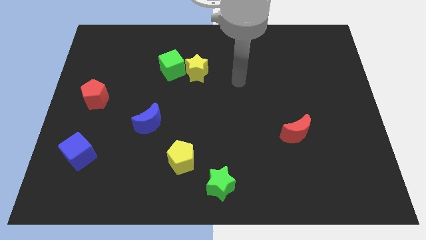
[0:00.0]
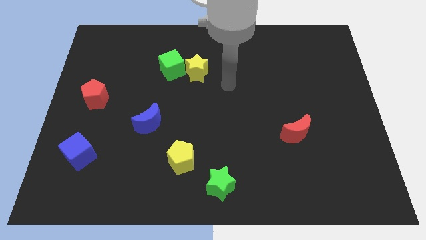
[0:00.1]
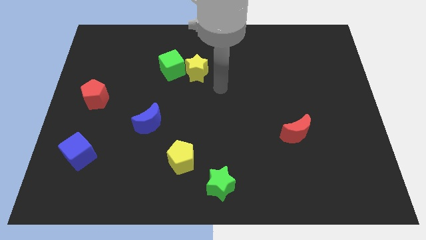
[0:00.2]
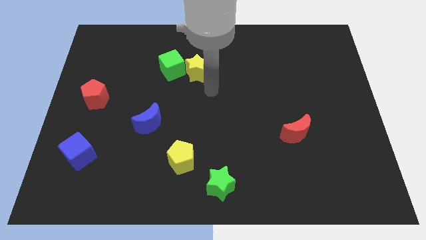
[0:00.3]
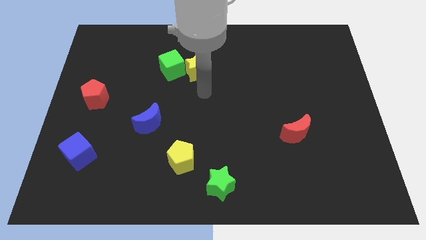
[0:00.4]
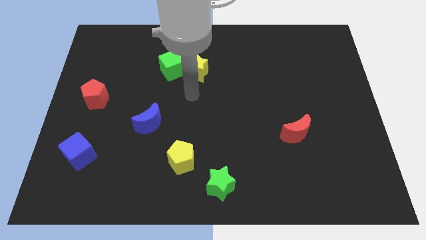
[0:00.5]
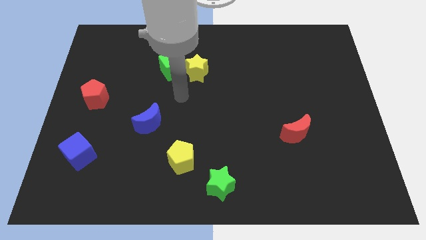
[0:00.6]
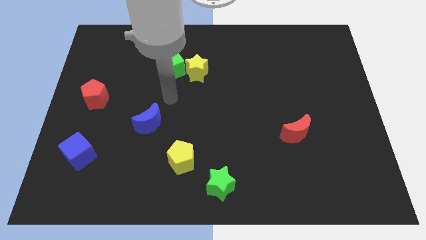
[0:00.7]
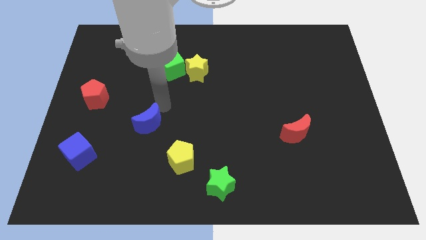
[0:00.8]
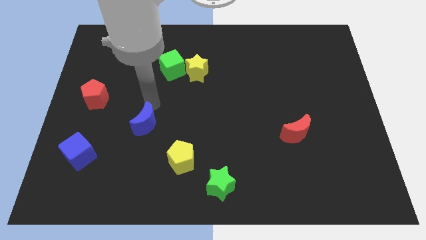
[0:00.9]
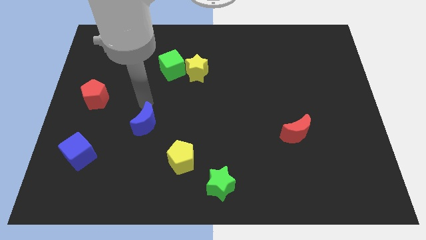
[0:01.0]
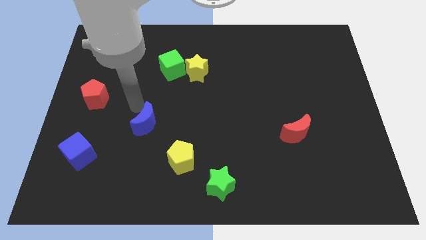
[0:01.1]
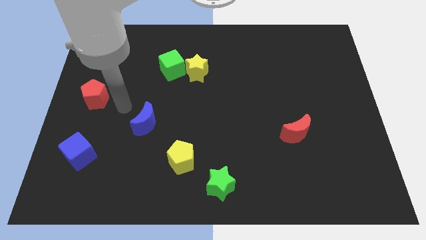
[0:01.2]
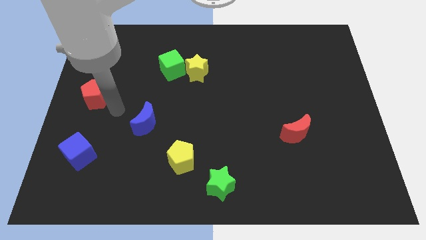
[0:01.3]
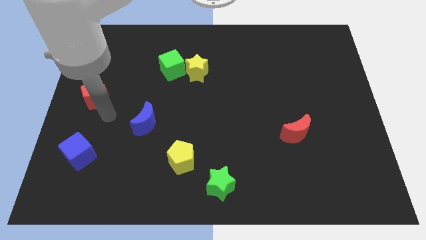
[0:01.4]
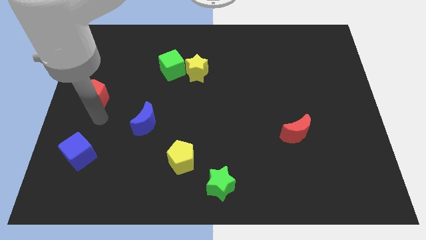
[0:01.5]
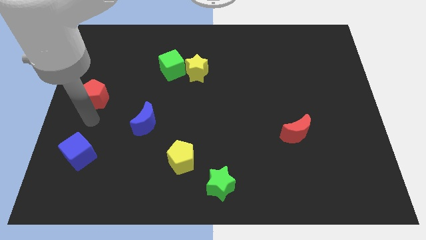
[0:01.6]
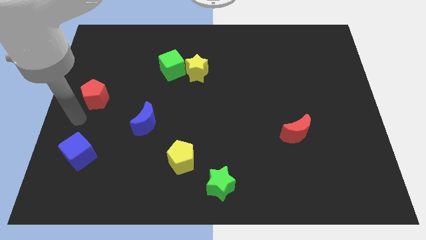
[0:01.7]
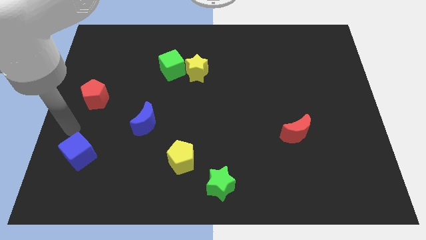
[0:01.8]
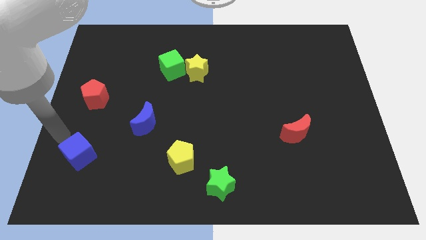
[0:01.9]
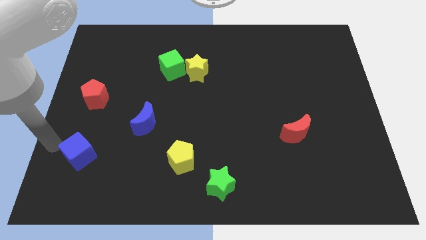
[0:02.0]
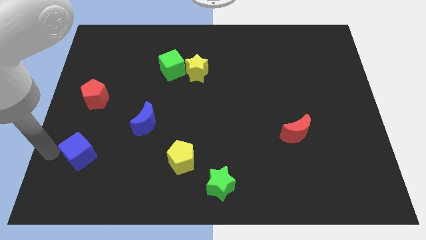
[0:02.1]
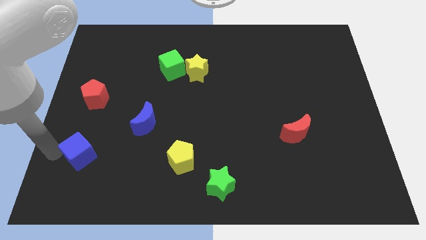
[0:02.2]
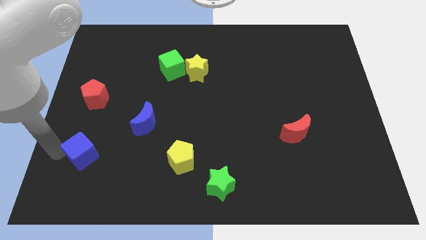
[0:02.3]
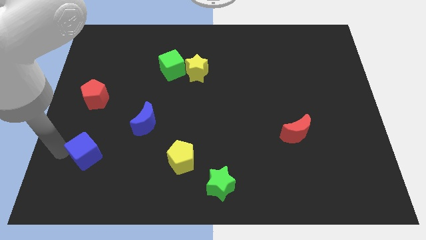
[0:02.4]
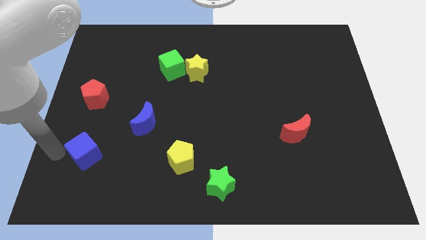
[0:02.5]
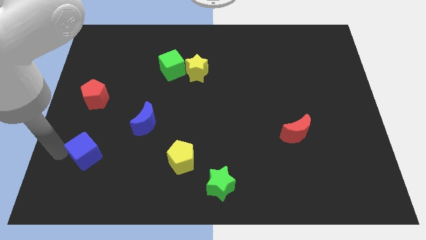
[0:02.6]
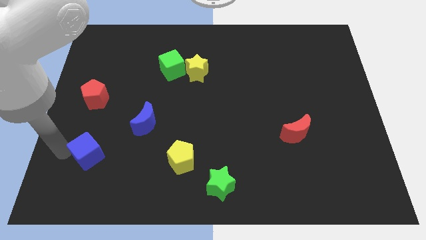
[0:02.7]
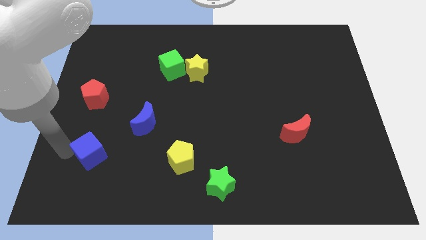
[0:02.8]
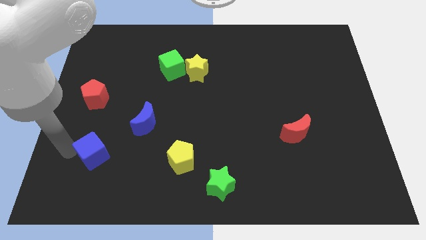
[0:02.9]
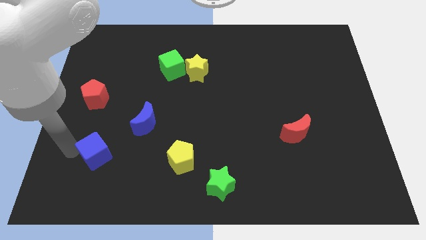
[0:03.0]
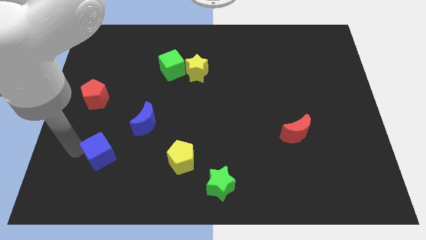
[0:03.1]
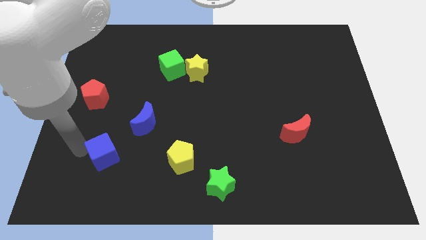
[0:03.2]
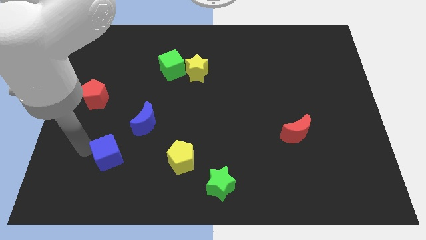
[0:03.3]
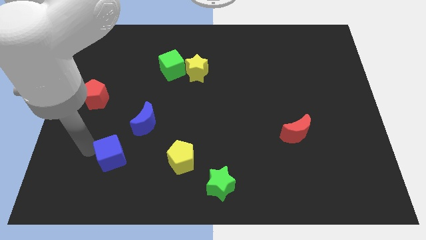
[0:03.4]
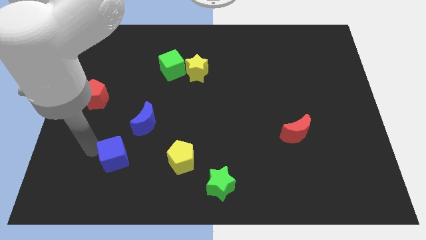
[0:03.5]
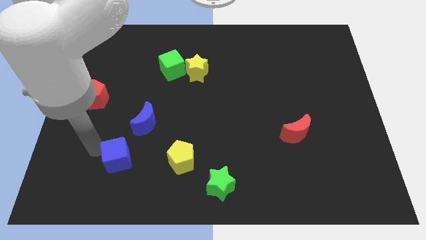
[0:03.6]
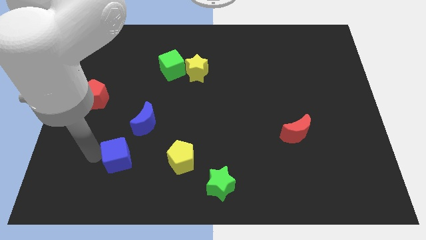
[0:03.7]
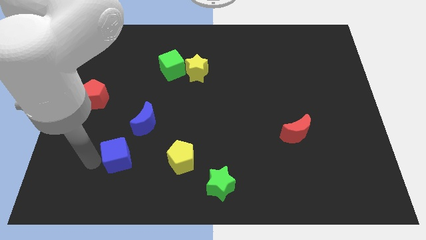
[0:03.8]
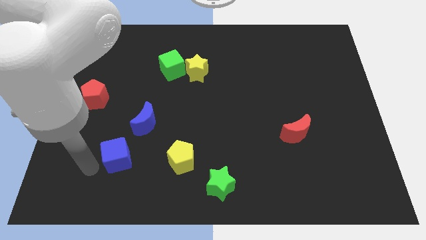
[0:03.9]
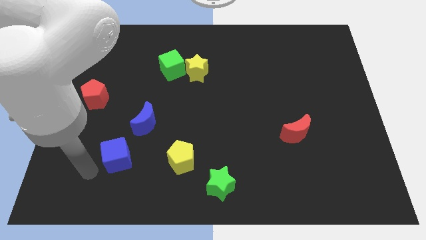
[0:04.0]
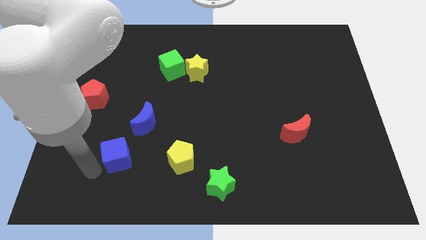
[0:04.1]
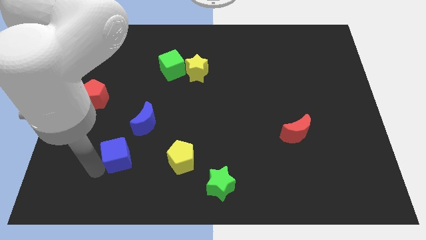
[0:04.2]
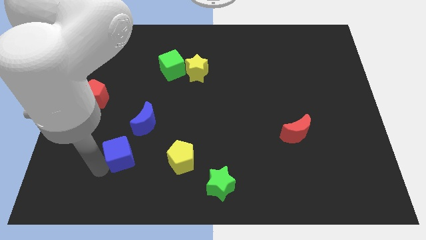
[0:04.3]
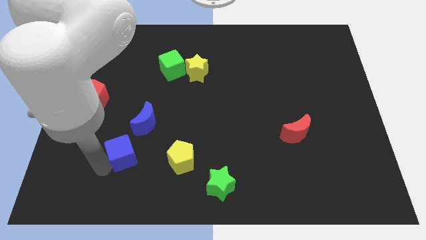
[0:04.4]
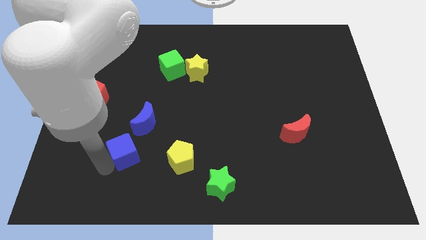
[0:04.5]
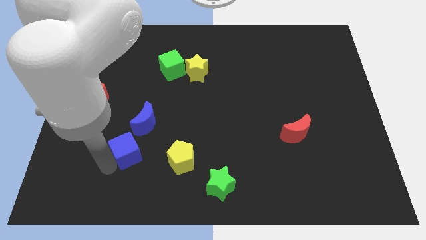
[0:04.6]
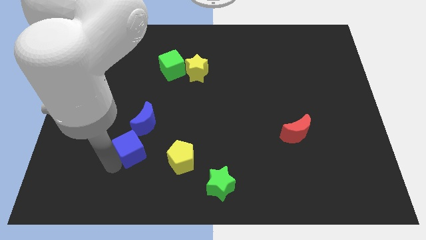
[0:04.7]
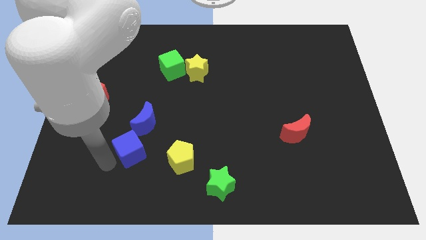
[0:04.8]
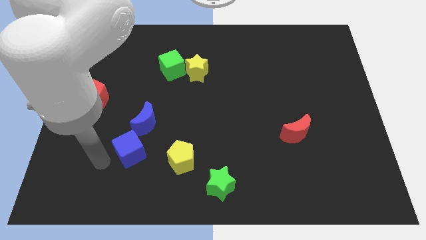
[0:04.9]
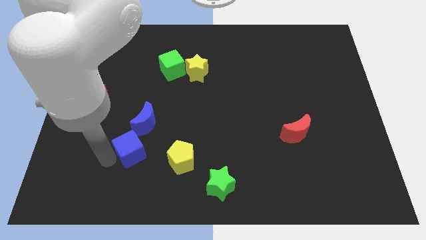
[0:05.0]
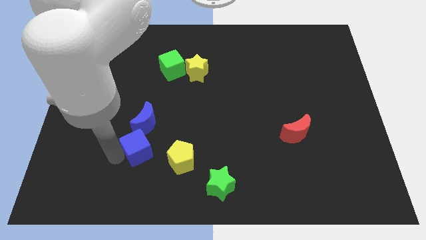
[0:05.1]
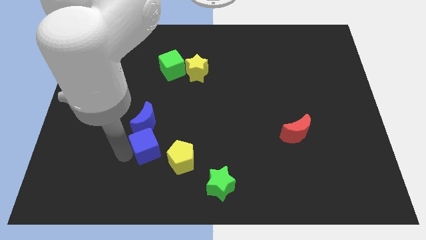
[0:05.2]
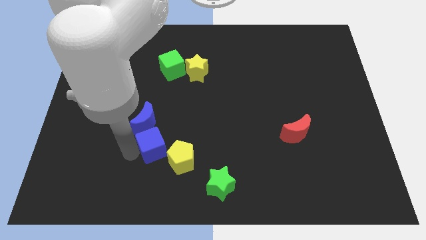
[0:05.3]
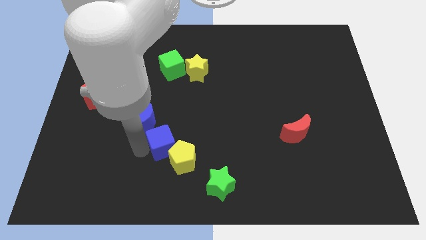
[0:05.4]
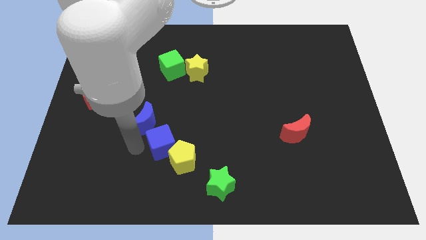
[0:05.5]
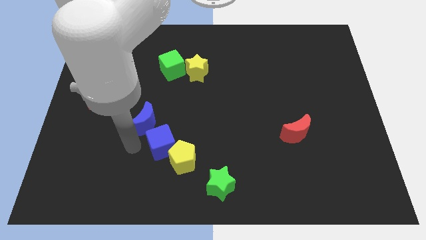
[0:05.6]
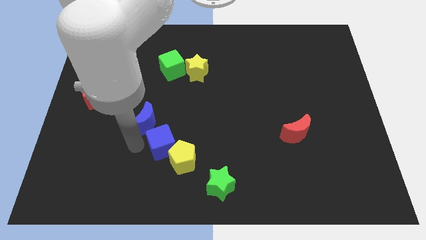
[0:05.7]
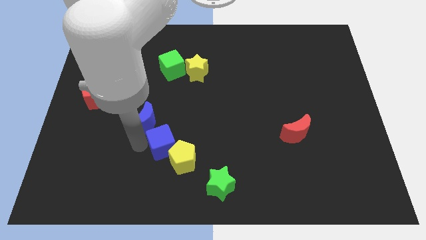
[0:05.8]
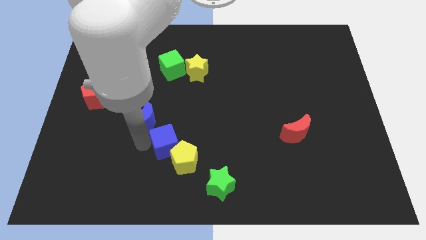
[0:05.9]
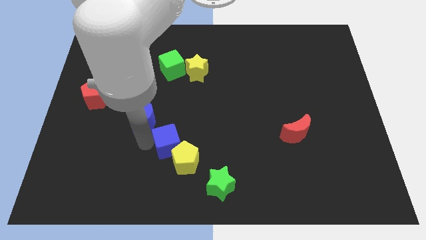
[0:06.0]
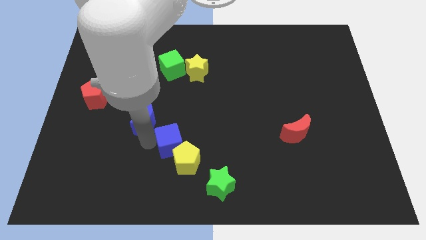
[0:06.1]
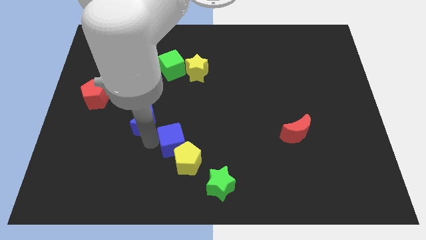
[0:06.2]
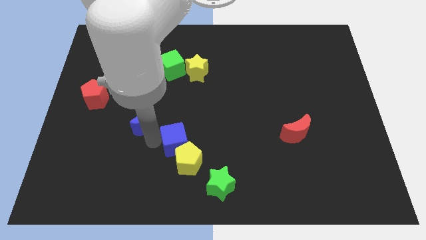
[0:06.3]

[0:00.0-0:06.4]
slide the blue cube to the right

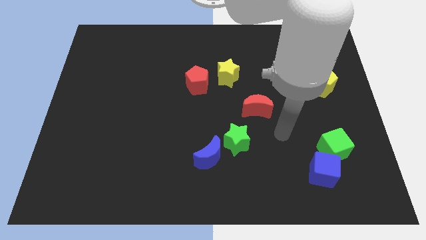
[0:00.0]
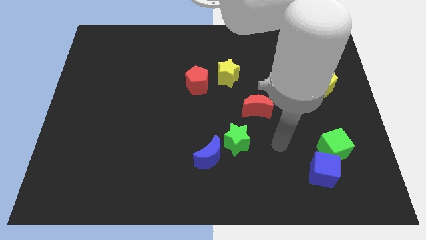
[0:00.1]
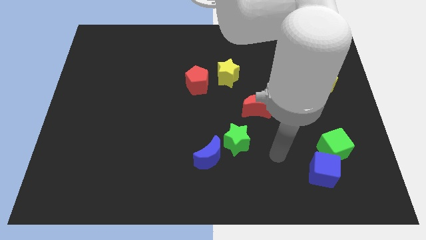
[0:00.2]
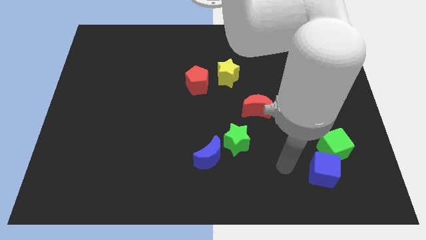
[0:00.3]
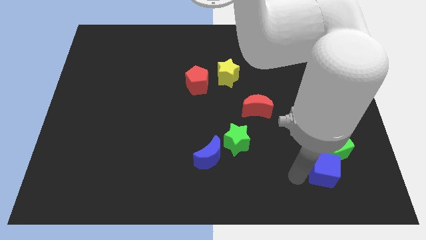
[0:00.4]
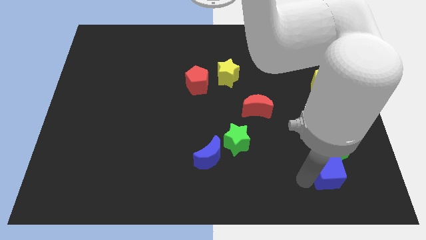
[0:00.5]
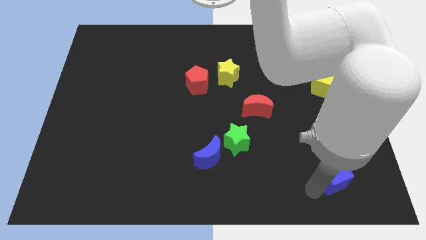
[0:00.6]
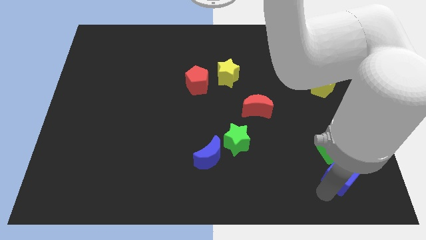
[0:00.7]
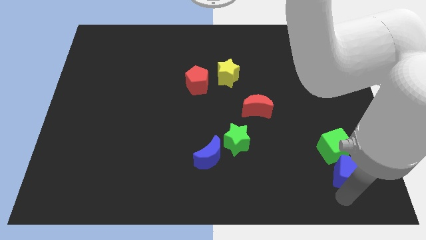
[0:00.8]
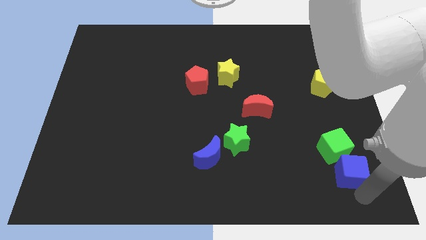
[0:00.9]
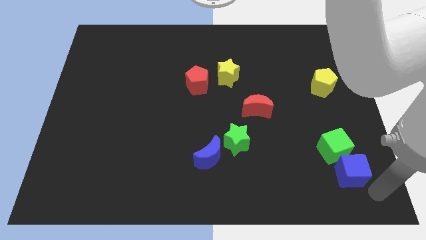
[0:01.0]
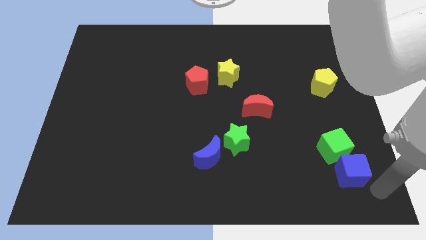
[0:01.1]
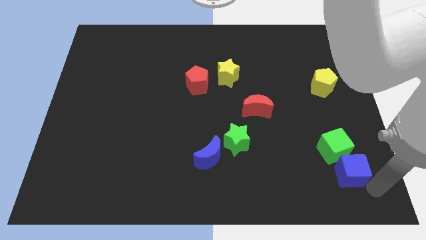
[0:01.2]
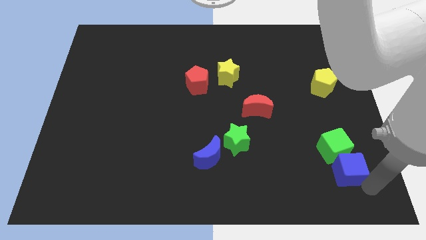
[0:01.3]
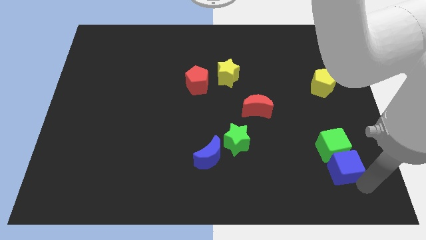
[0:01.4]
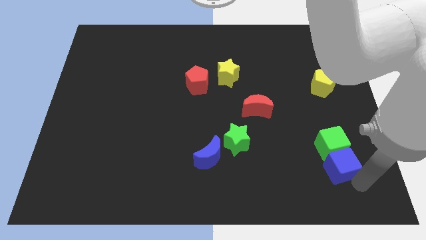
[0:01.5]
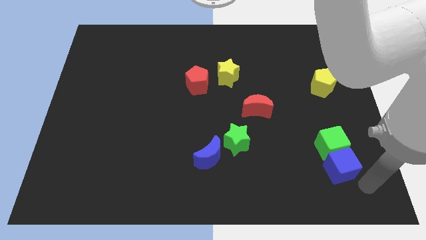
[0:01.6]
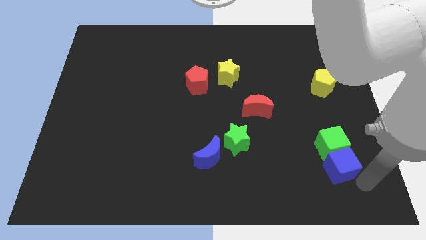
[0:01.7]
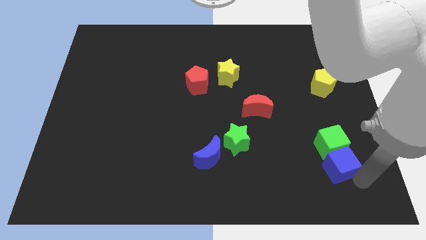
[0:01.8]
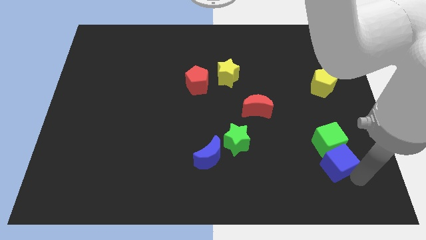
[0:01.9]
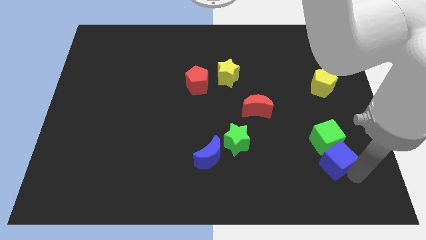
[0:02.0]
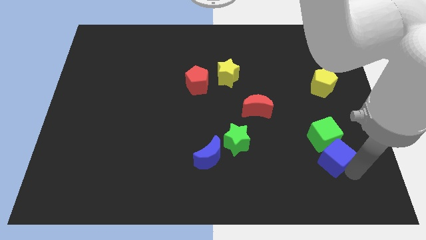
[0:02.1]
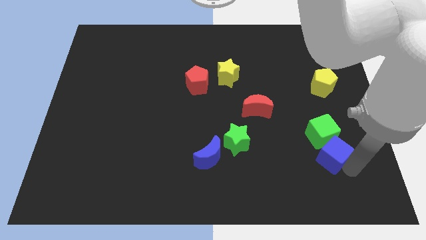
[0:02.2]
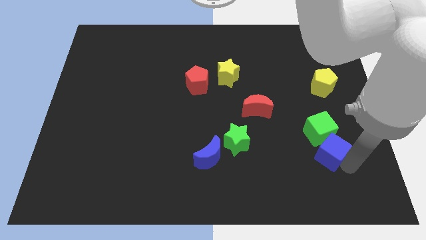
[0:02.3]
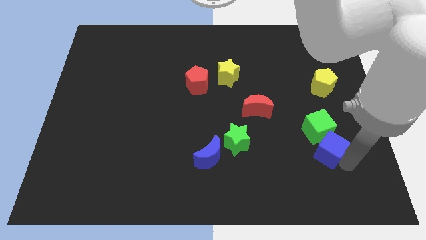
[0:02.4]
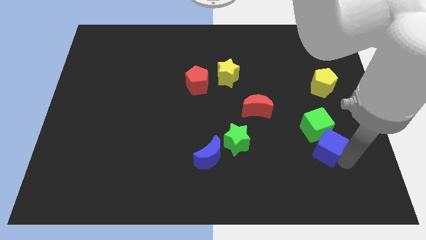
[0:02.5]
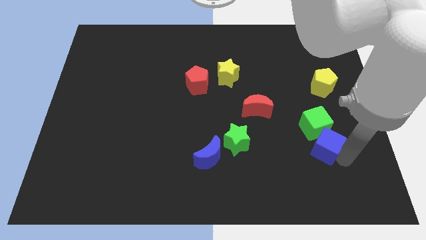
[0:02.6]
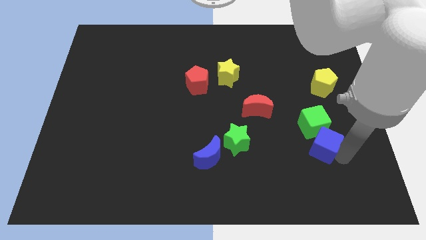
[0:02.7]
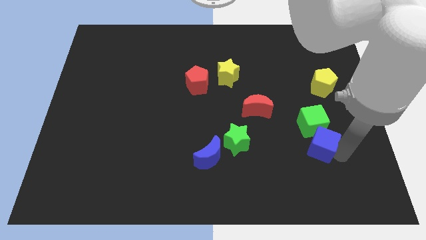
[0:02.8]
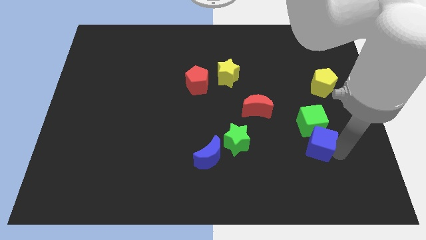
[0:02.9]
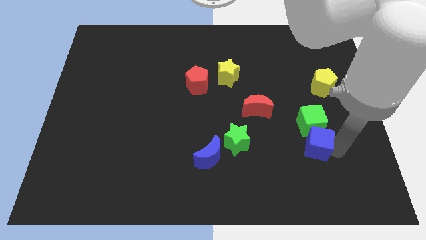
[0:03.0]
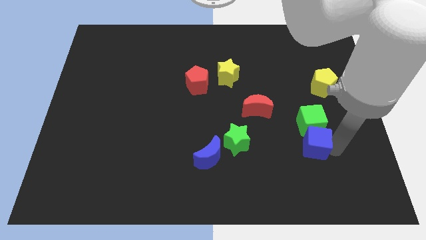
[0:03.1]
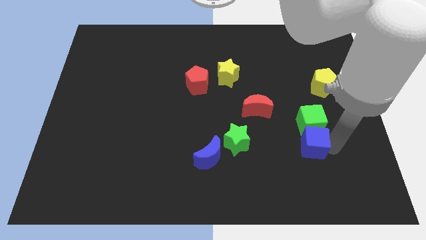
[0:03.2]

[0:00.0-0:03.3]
push the blue cube up a little bit
